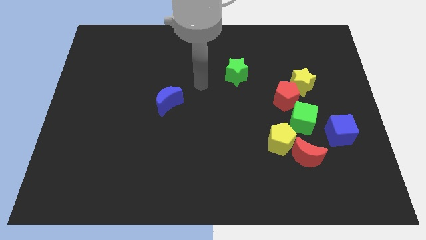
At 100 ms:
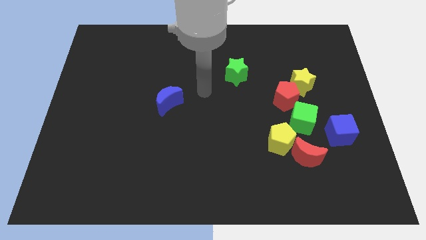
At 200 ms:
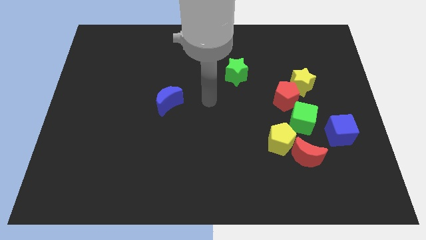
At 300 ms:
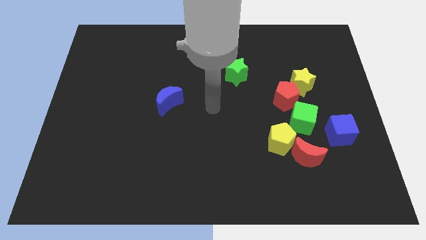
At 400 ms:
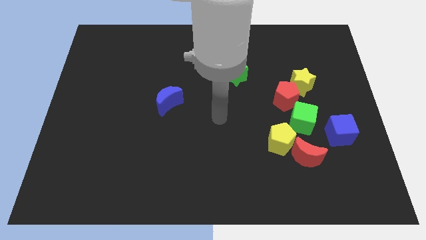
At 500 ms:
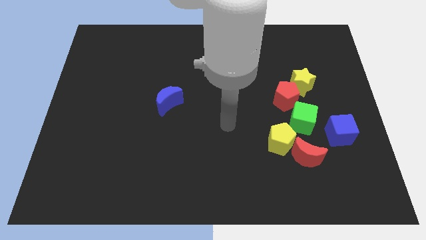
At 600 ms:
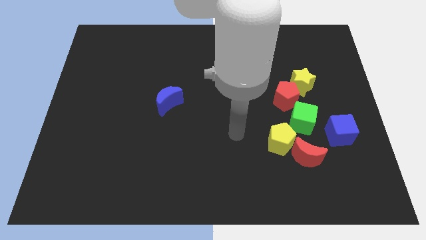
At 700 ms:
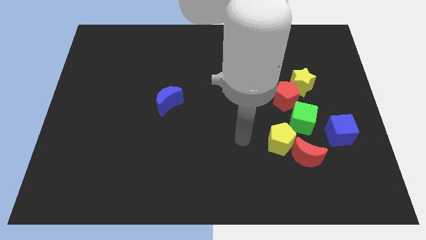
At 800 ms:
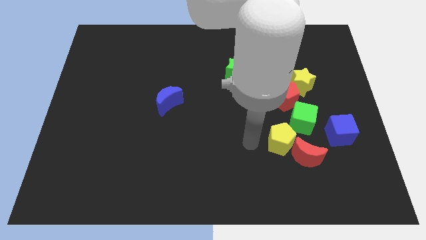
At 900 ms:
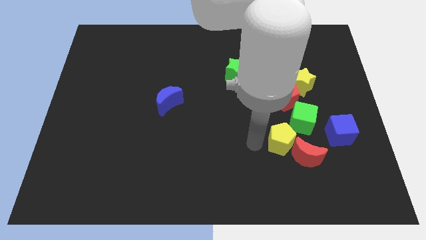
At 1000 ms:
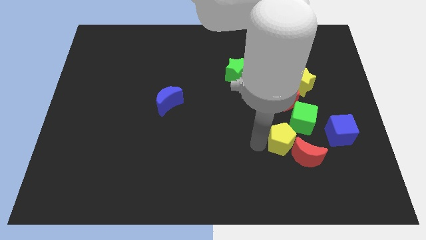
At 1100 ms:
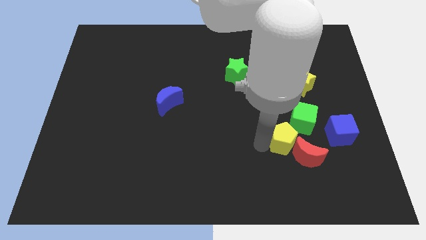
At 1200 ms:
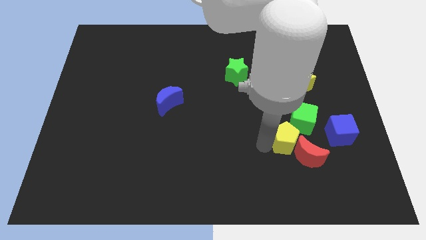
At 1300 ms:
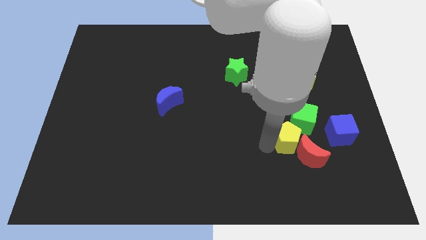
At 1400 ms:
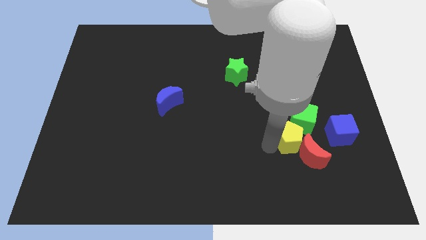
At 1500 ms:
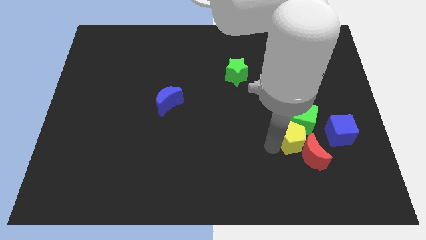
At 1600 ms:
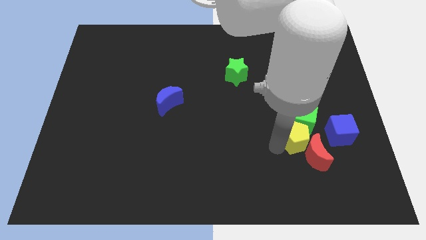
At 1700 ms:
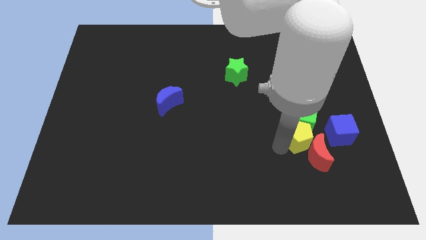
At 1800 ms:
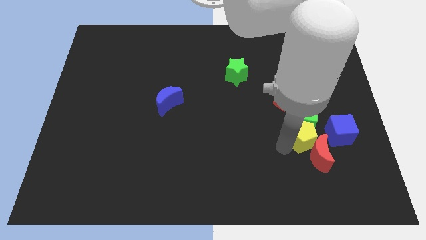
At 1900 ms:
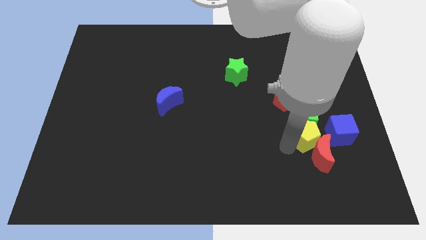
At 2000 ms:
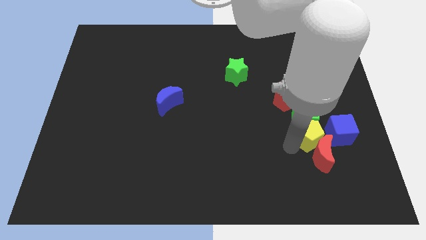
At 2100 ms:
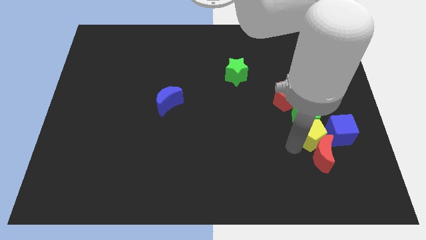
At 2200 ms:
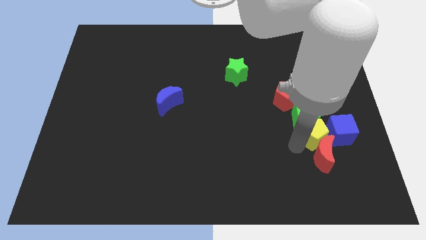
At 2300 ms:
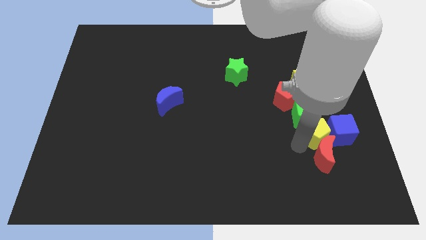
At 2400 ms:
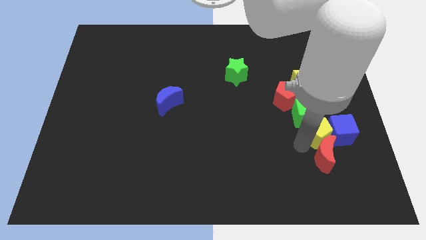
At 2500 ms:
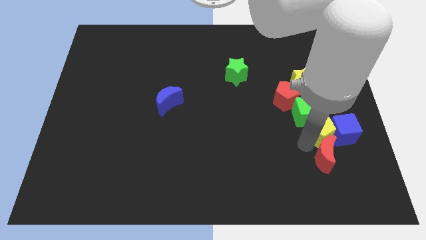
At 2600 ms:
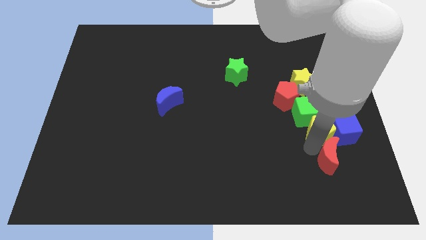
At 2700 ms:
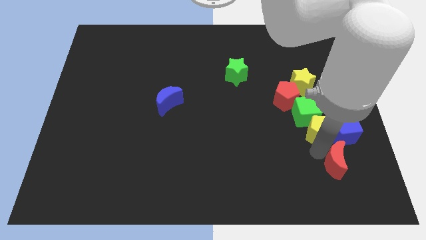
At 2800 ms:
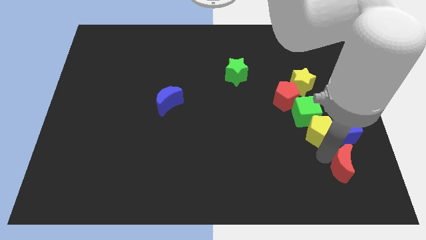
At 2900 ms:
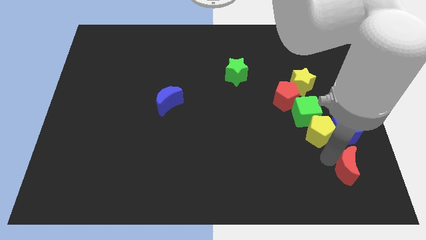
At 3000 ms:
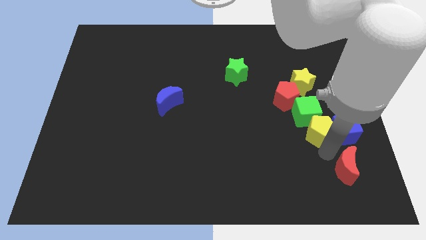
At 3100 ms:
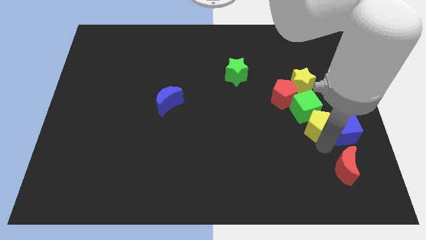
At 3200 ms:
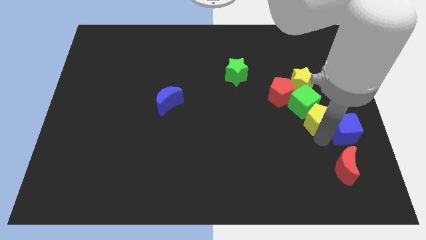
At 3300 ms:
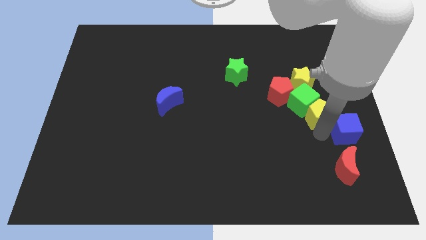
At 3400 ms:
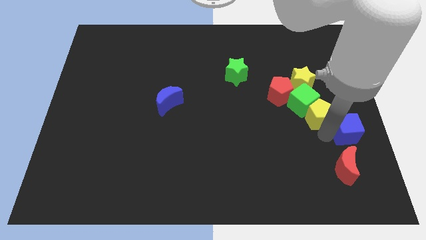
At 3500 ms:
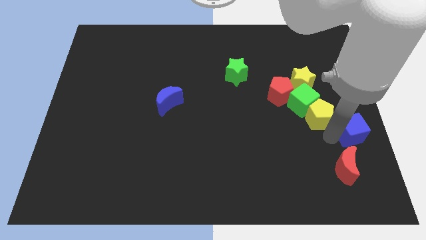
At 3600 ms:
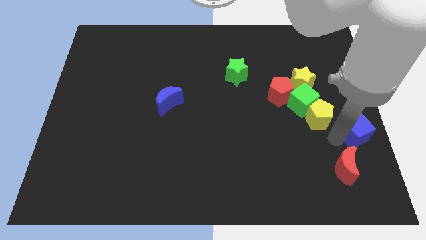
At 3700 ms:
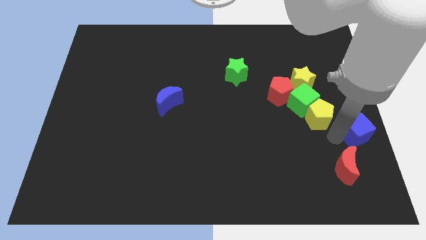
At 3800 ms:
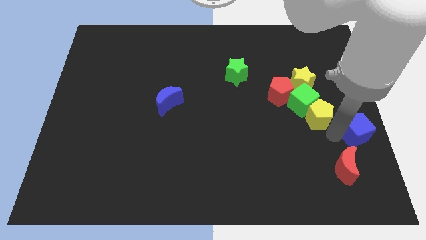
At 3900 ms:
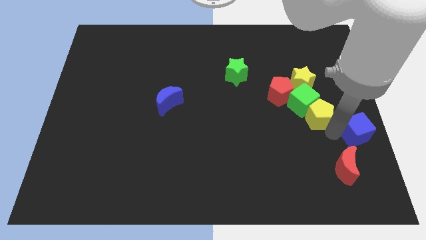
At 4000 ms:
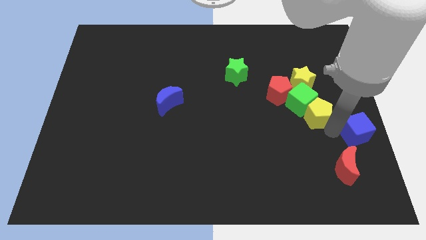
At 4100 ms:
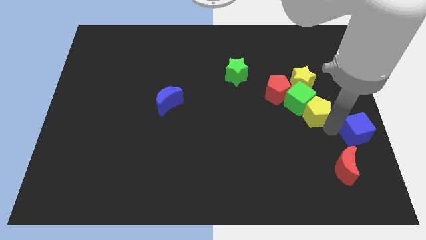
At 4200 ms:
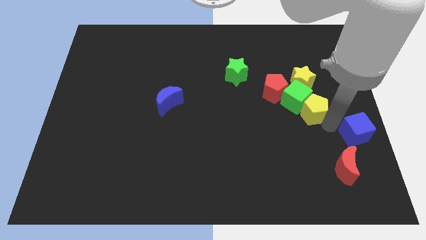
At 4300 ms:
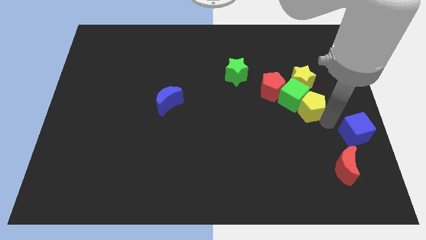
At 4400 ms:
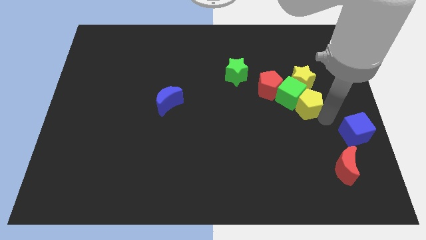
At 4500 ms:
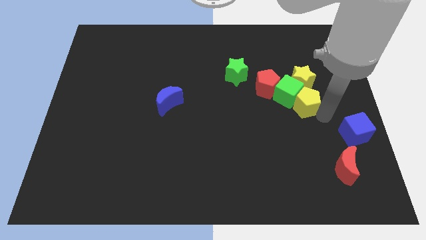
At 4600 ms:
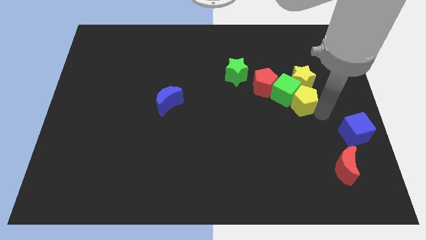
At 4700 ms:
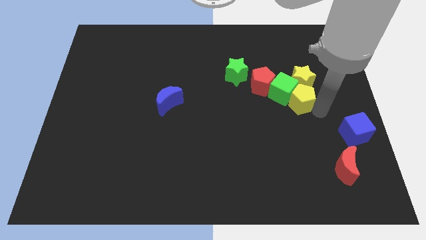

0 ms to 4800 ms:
put the yellow pentagon next to the yellow star

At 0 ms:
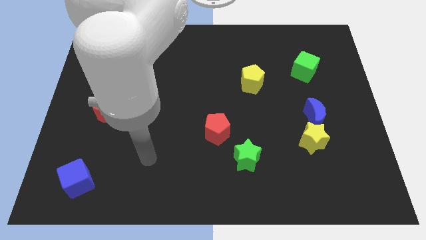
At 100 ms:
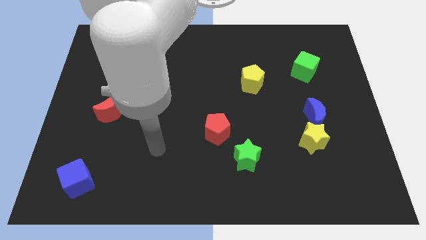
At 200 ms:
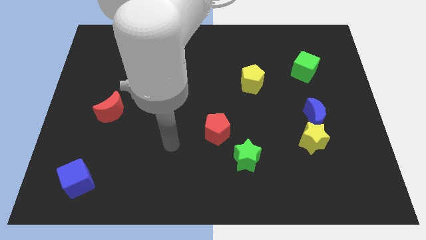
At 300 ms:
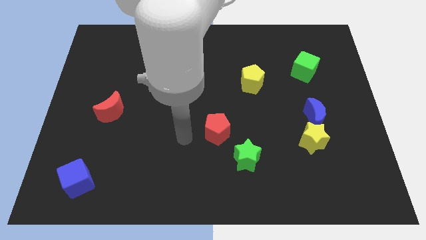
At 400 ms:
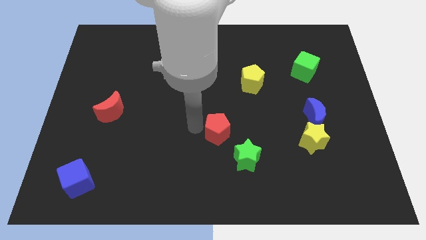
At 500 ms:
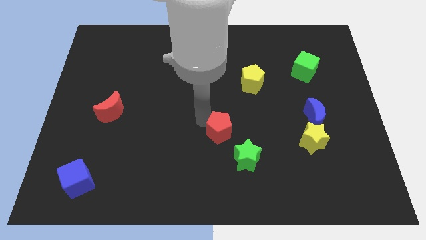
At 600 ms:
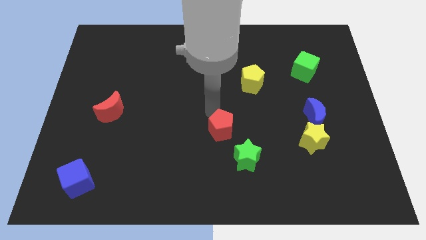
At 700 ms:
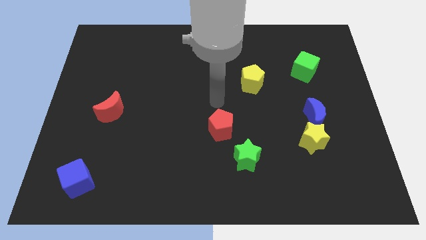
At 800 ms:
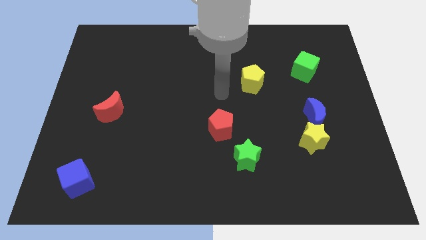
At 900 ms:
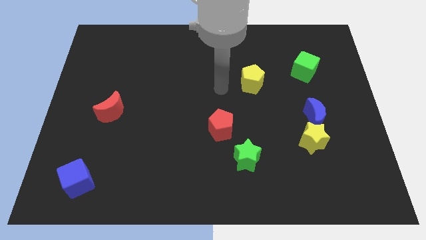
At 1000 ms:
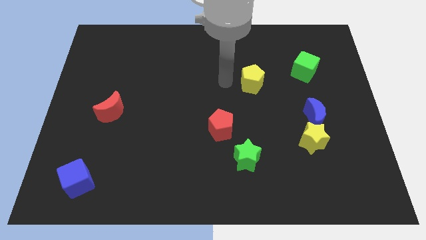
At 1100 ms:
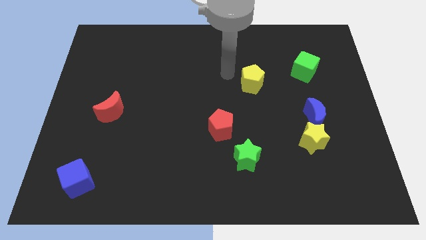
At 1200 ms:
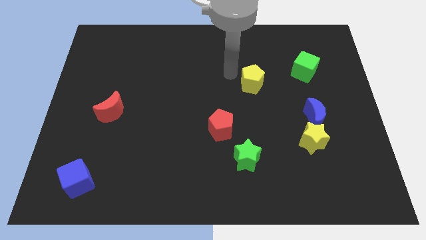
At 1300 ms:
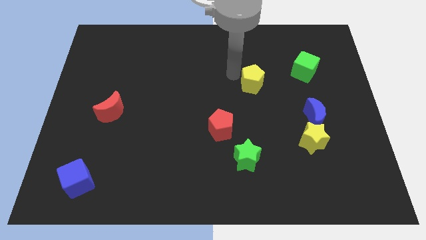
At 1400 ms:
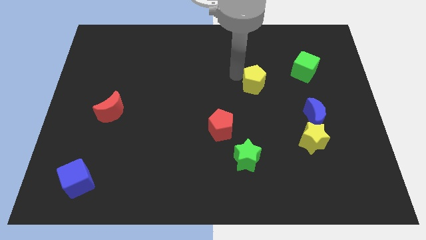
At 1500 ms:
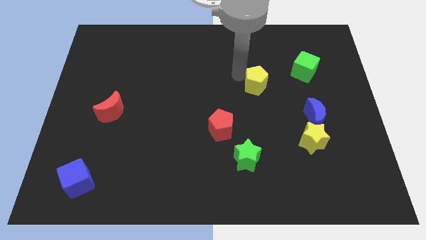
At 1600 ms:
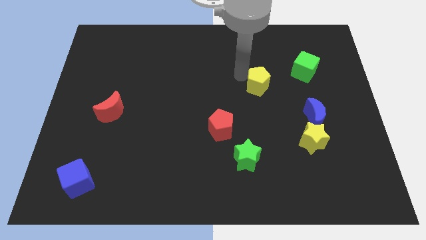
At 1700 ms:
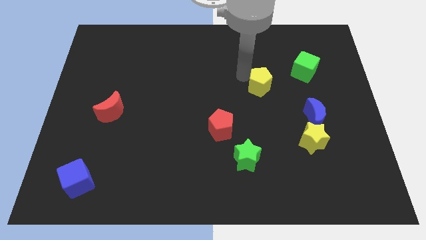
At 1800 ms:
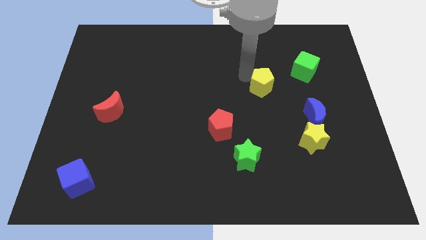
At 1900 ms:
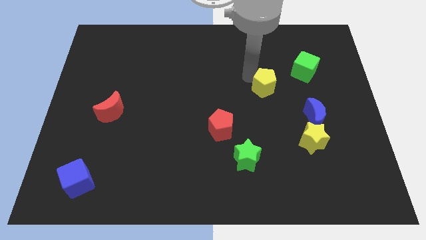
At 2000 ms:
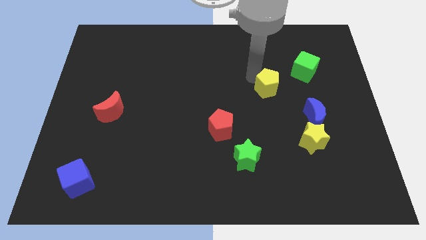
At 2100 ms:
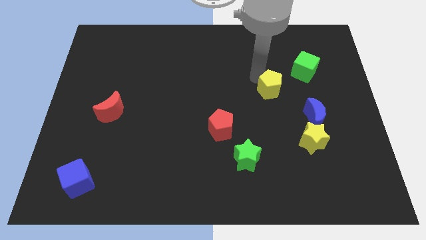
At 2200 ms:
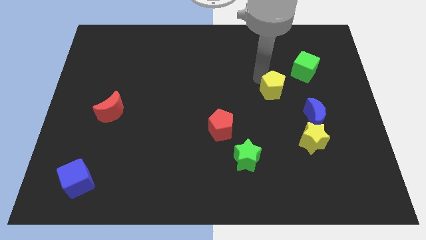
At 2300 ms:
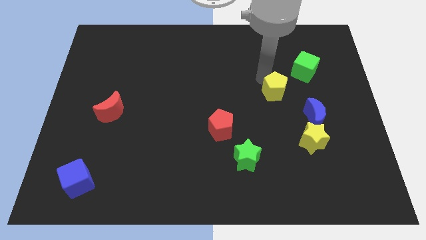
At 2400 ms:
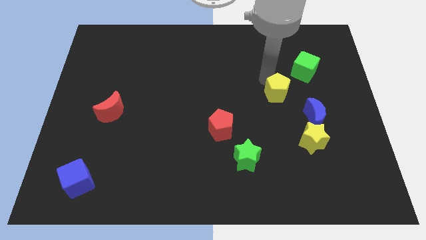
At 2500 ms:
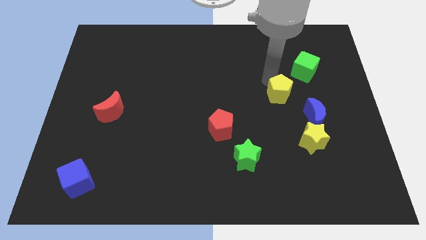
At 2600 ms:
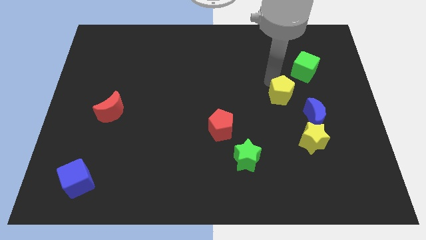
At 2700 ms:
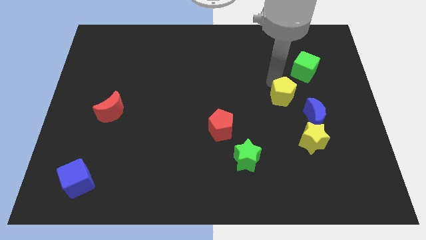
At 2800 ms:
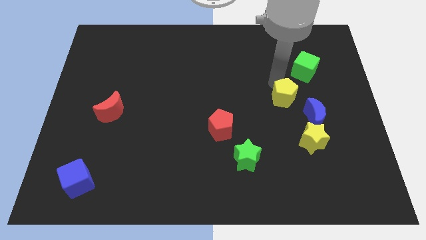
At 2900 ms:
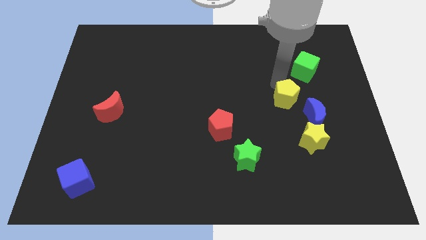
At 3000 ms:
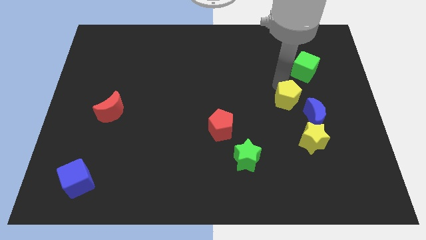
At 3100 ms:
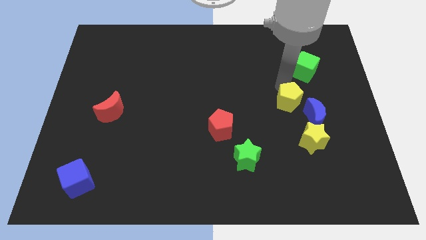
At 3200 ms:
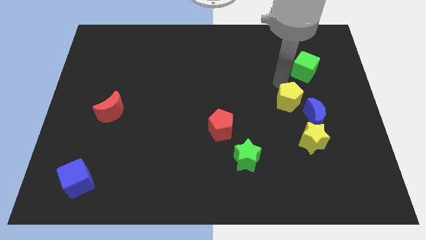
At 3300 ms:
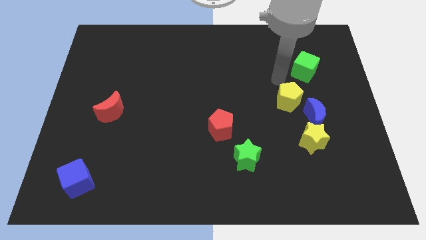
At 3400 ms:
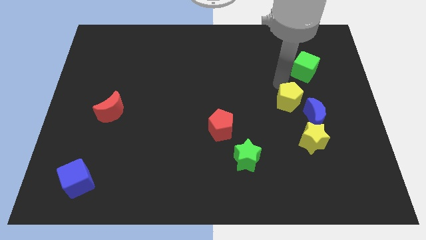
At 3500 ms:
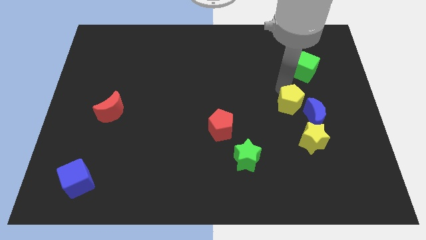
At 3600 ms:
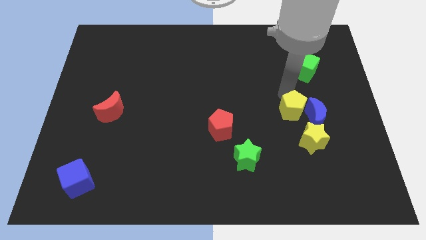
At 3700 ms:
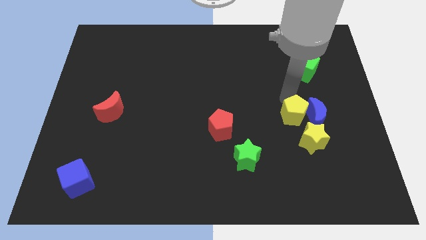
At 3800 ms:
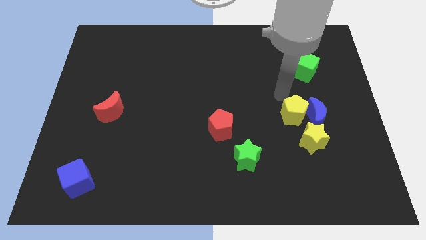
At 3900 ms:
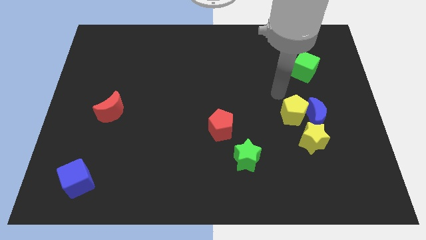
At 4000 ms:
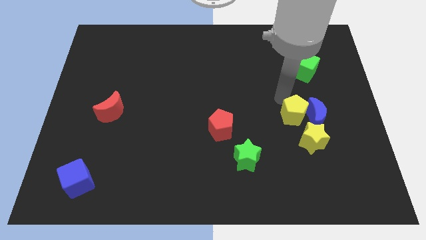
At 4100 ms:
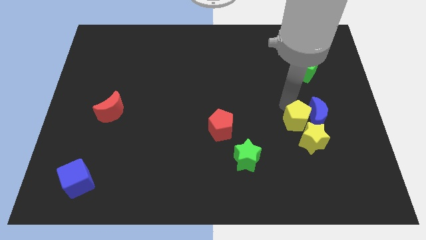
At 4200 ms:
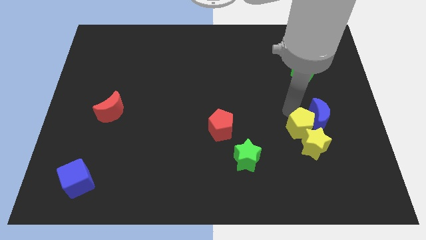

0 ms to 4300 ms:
push the yellow pentagon next to the yellow star
